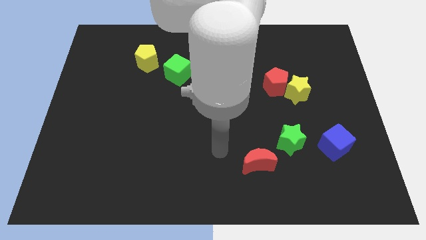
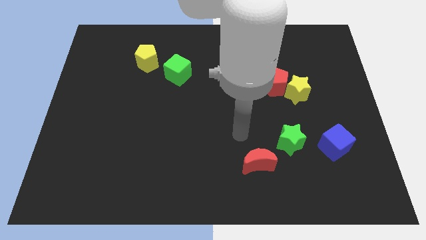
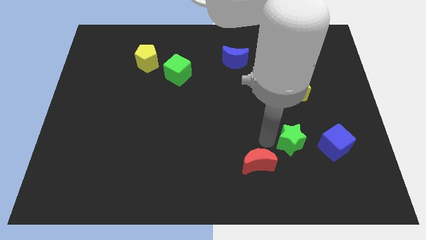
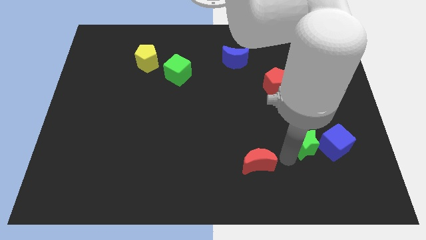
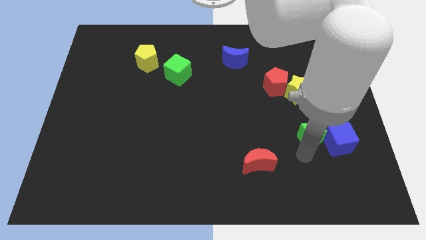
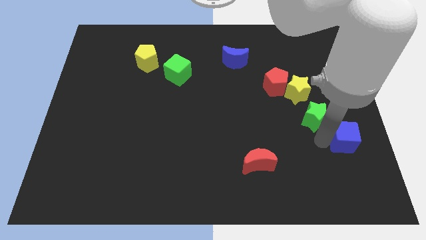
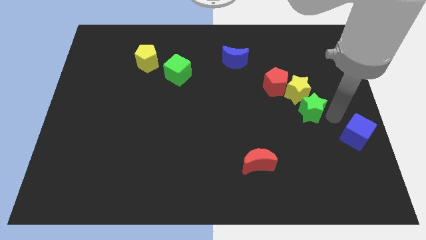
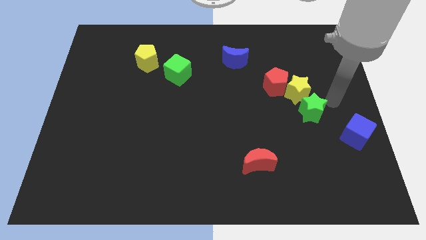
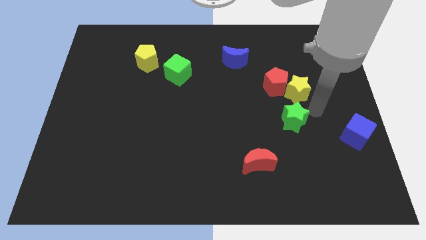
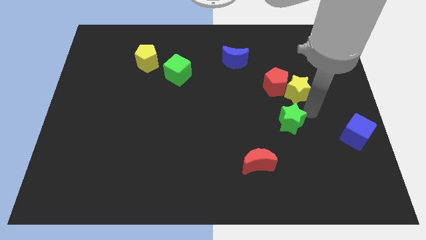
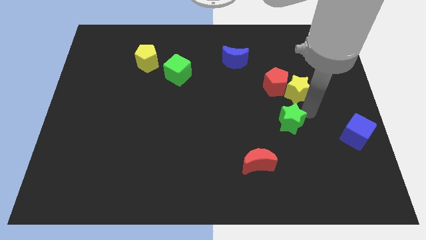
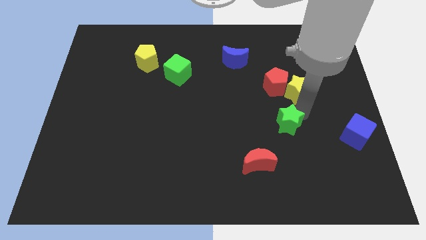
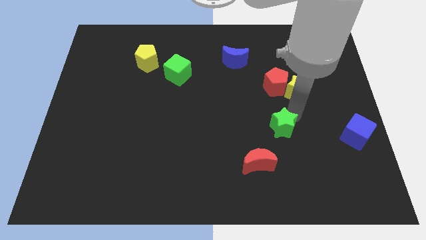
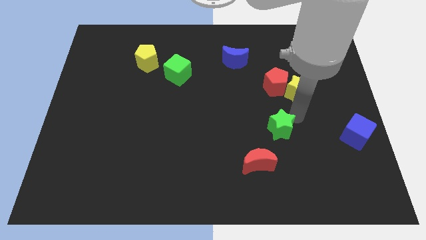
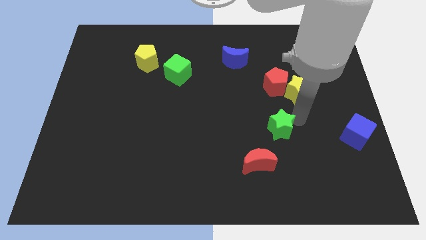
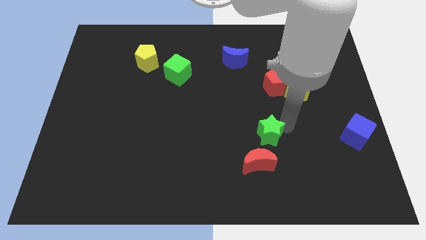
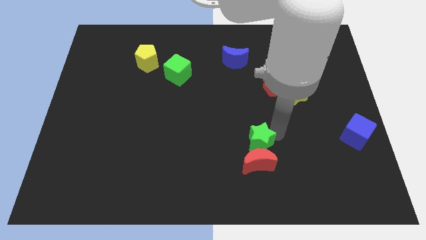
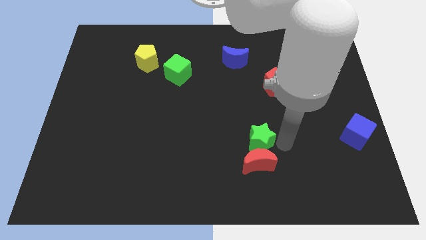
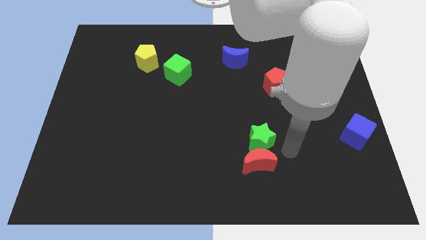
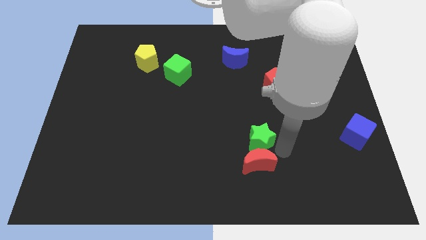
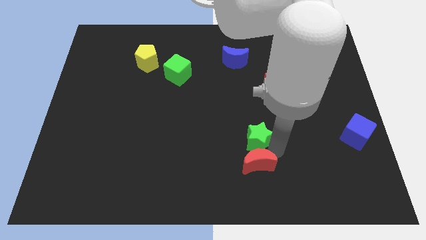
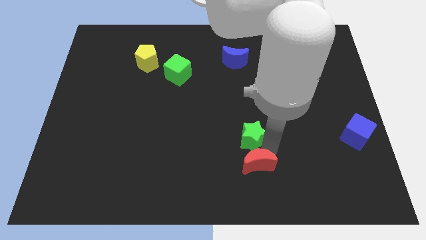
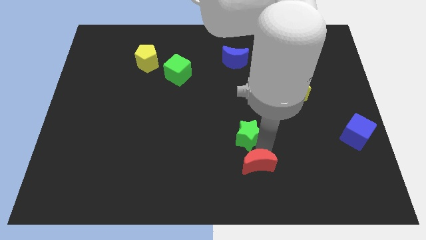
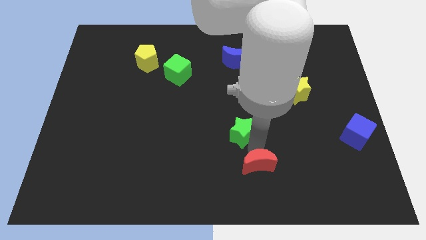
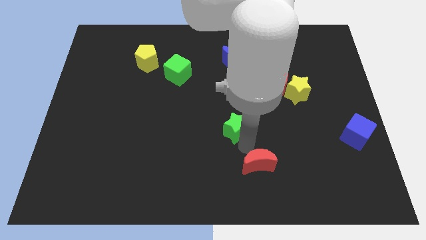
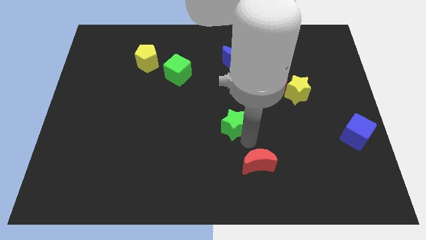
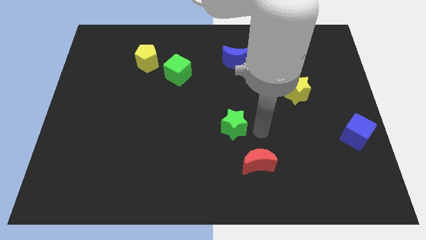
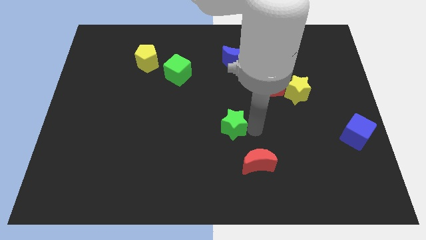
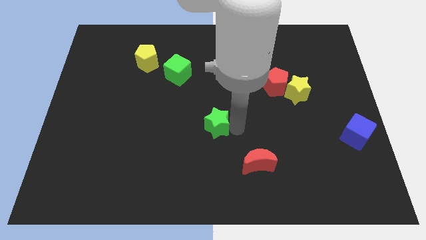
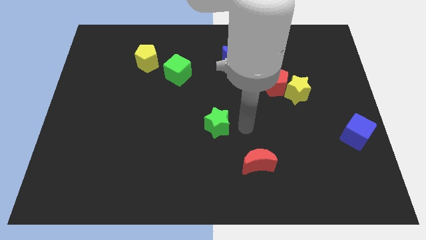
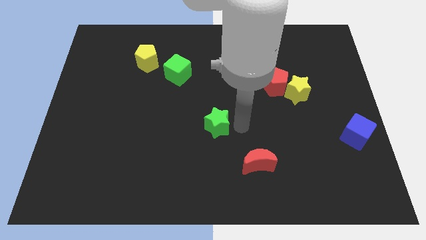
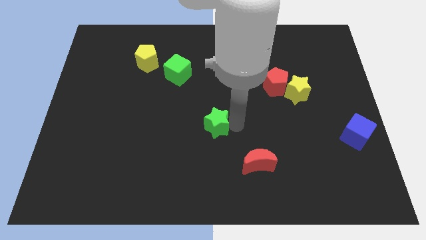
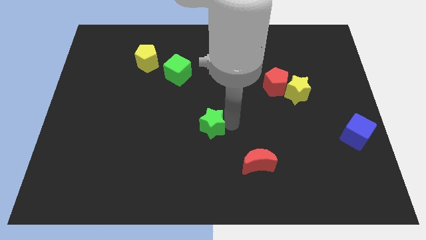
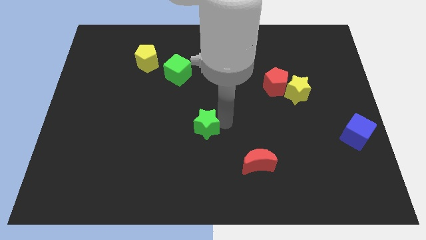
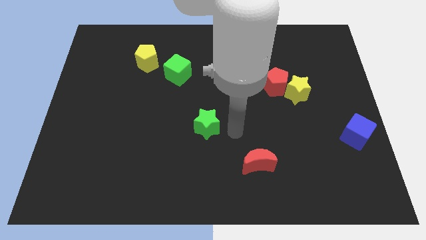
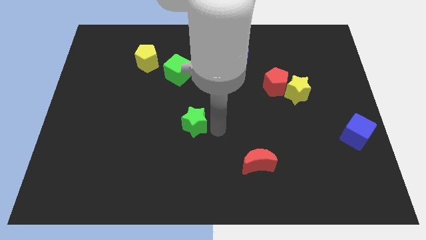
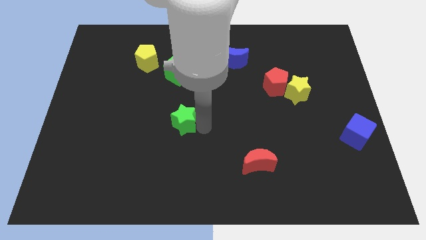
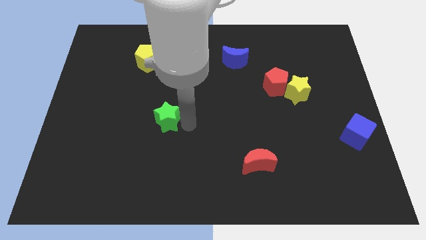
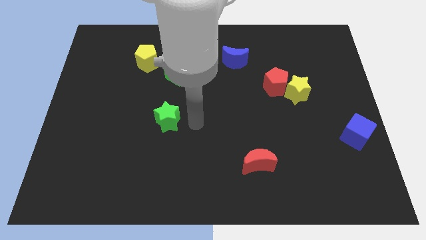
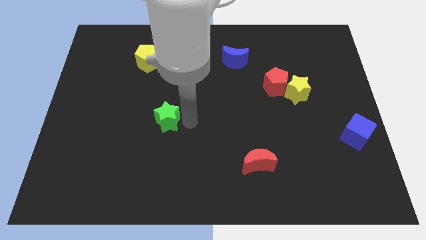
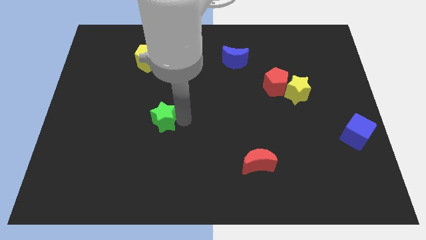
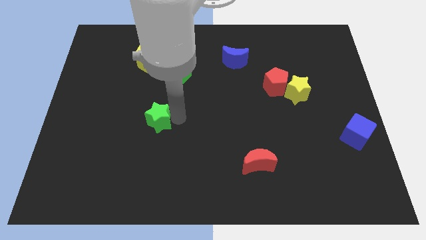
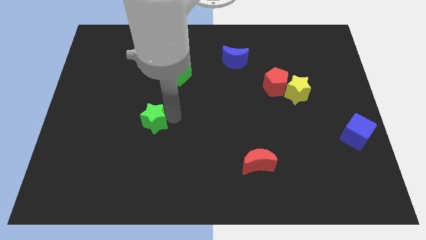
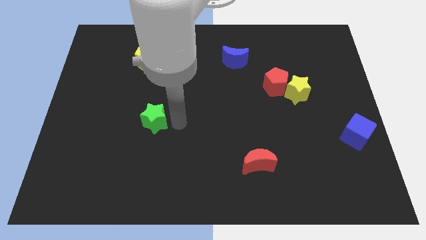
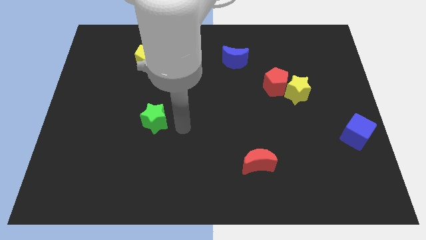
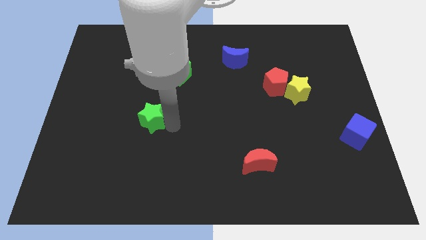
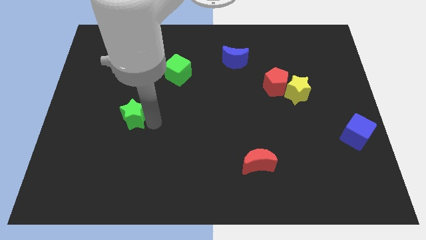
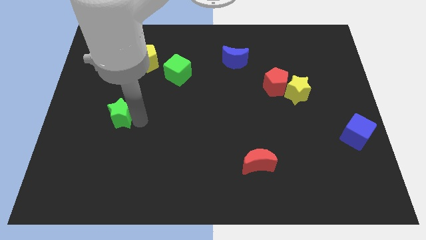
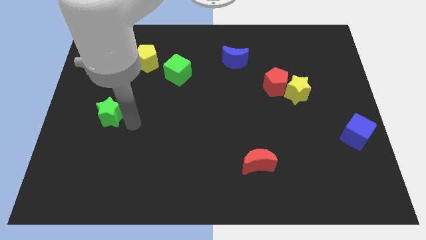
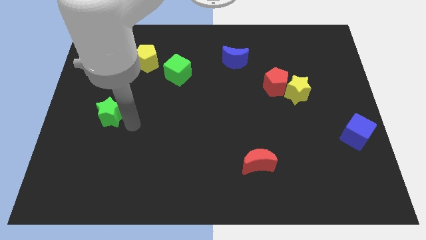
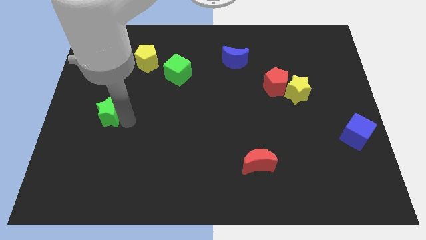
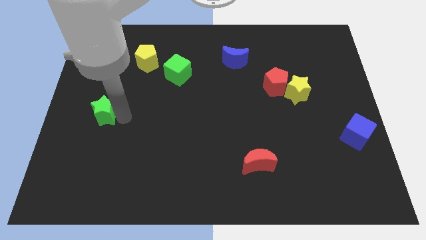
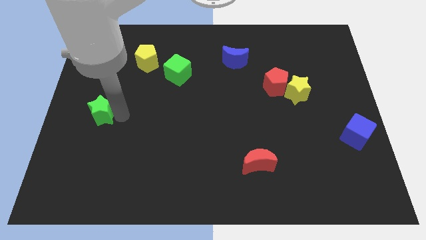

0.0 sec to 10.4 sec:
move the green star to the center left

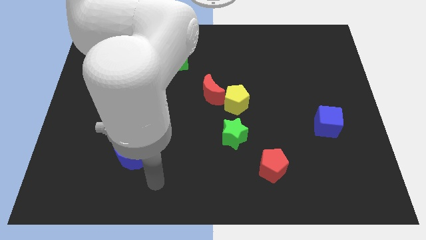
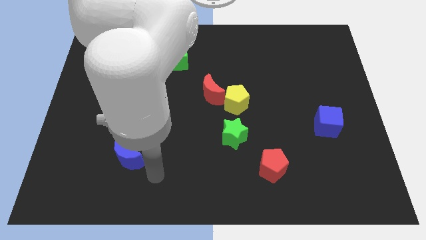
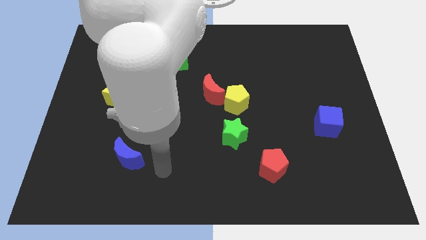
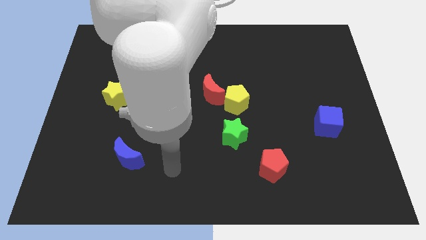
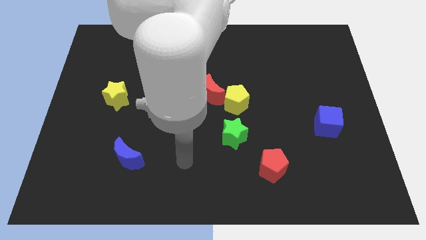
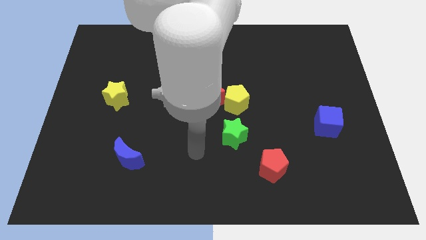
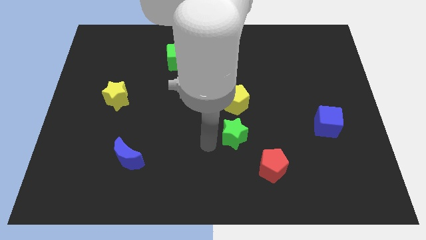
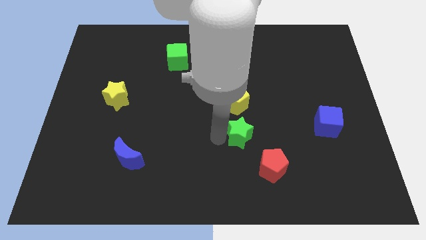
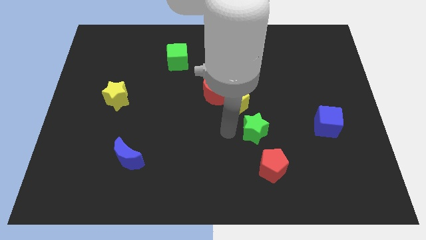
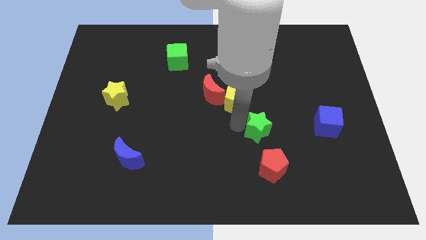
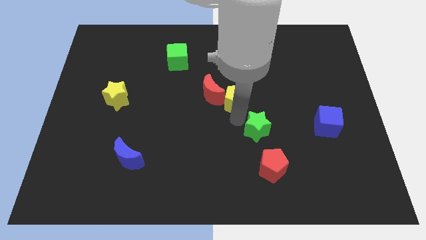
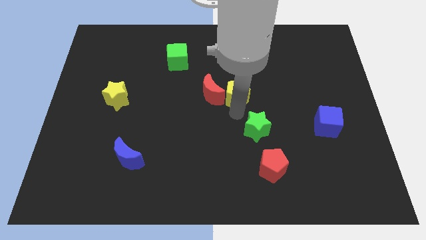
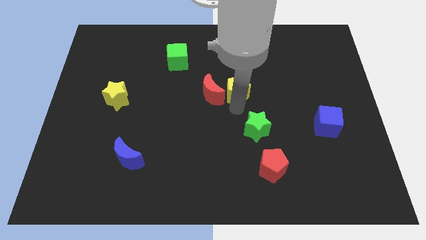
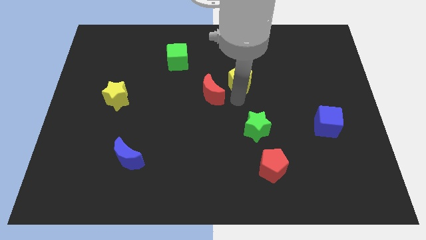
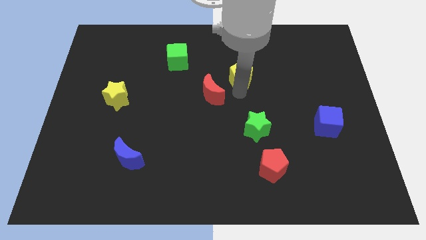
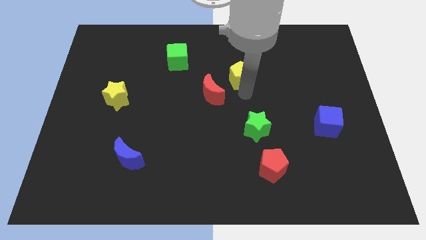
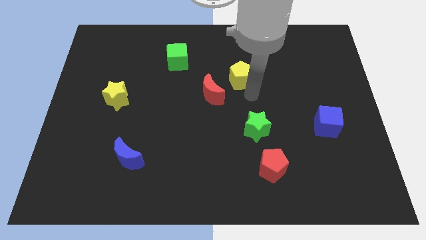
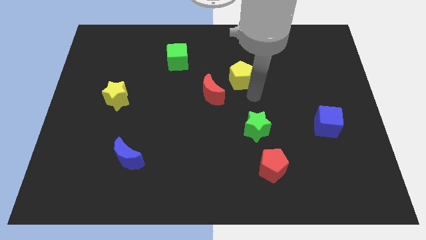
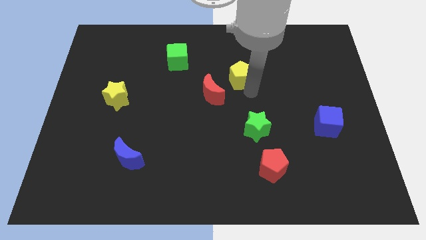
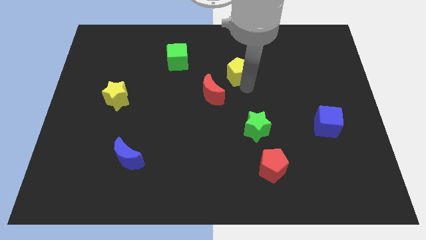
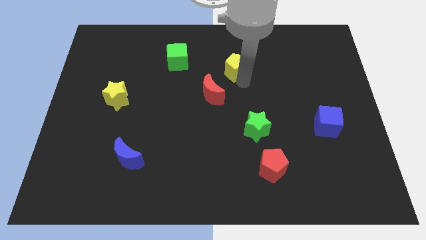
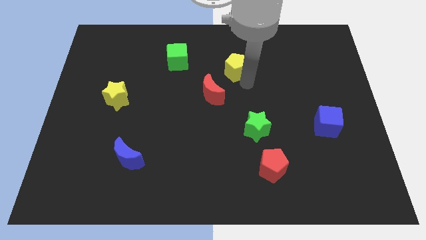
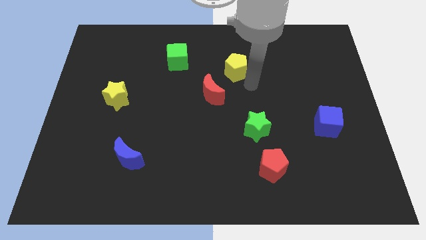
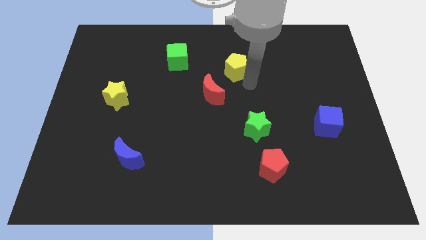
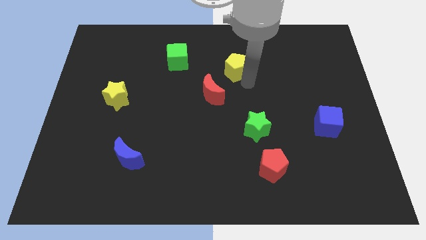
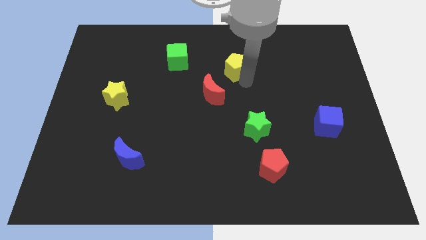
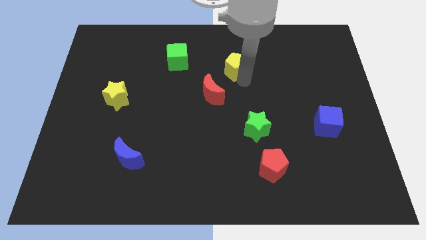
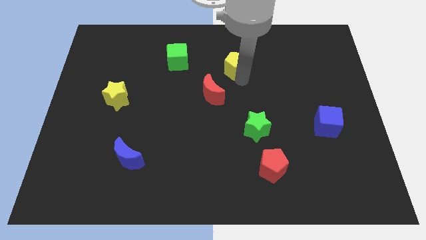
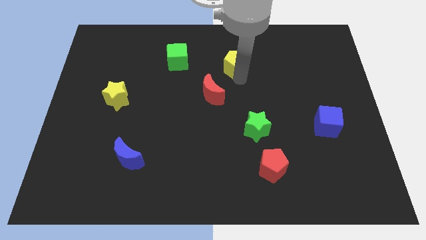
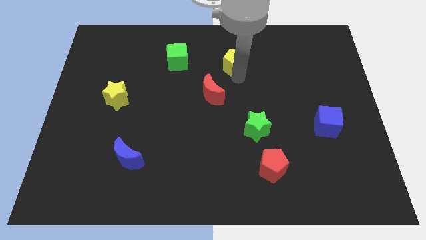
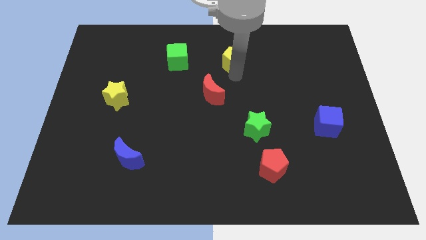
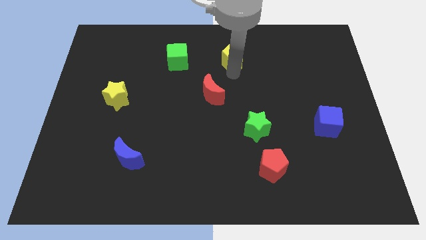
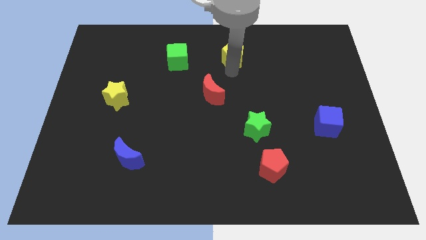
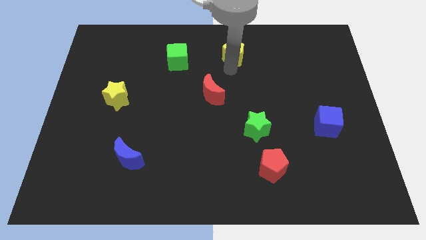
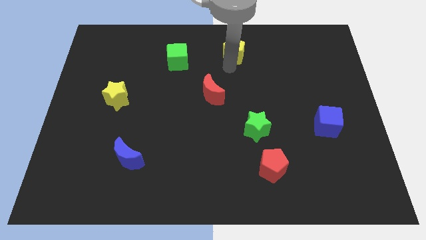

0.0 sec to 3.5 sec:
put the yellow pentagon to the top
